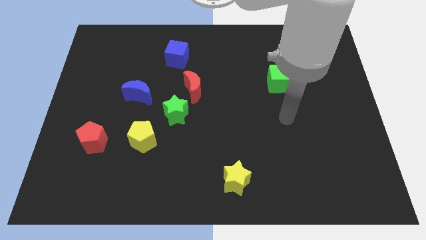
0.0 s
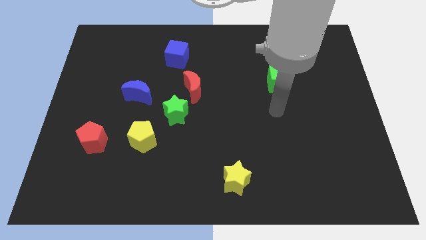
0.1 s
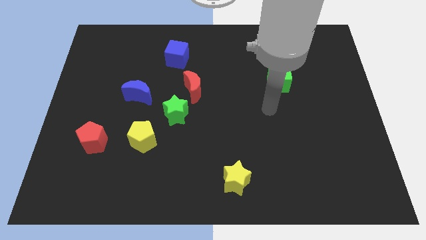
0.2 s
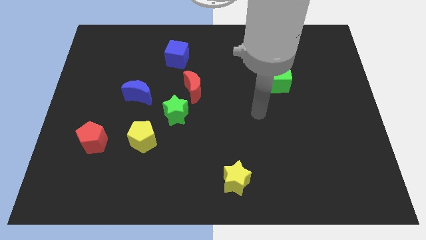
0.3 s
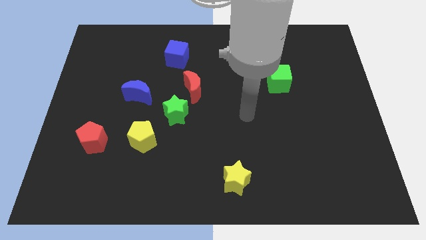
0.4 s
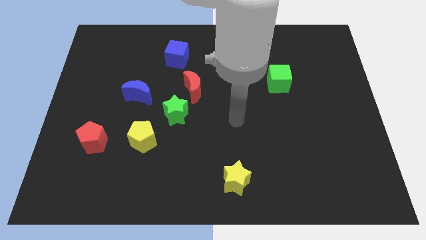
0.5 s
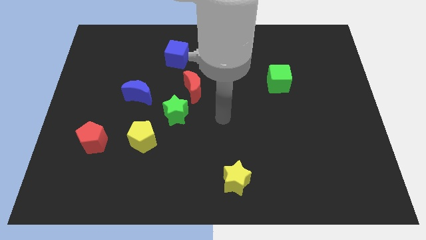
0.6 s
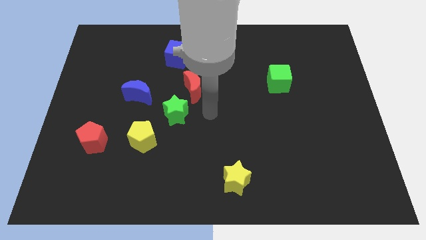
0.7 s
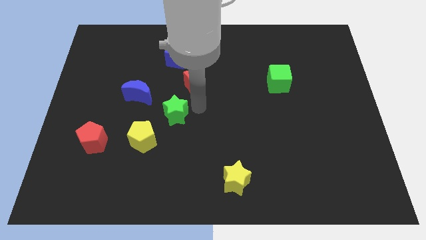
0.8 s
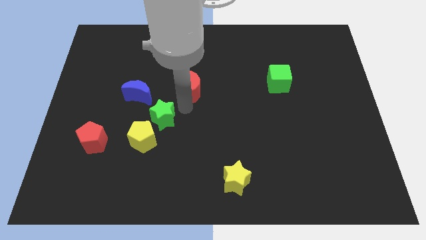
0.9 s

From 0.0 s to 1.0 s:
pull the red moon apart from the green star

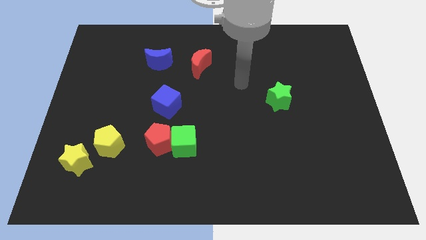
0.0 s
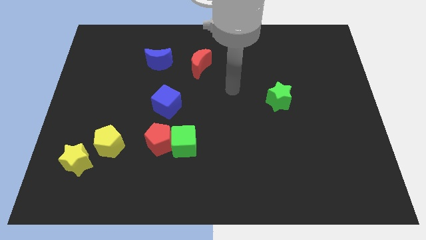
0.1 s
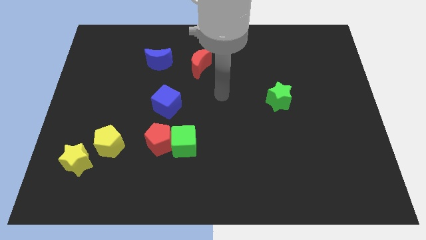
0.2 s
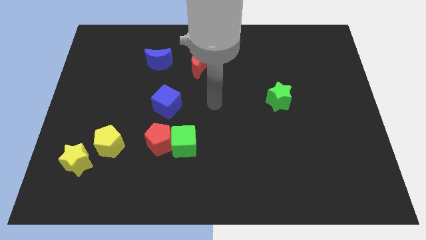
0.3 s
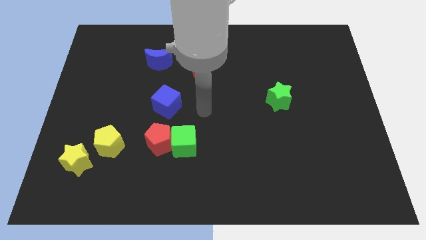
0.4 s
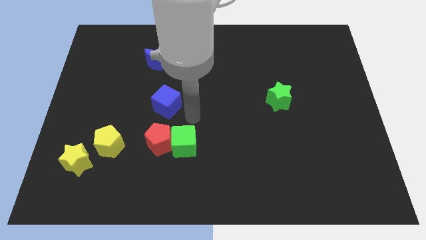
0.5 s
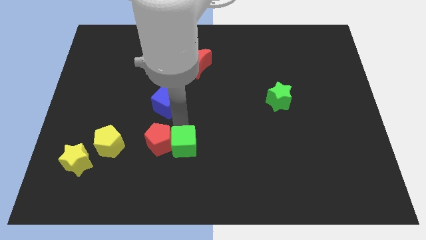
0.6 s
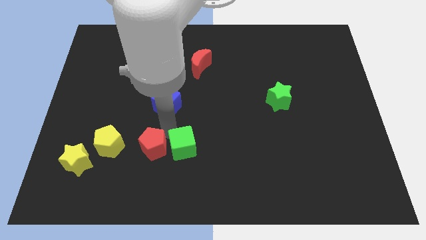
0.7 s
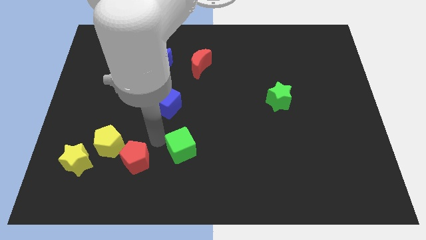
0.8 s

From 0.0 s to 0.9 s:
separate the green cube from the red pentagon

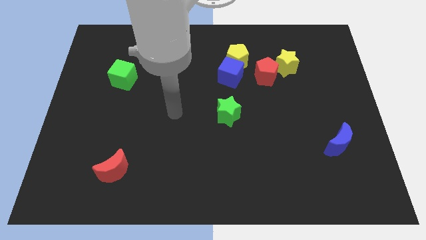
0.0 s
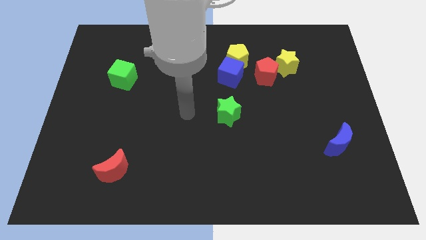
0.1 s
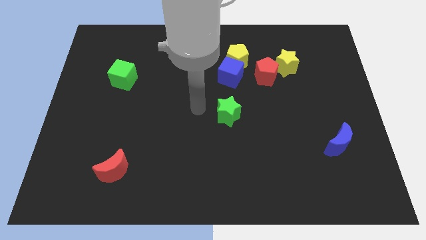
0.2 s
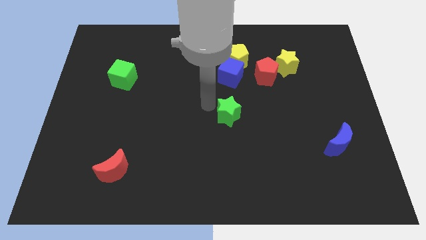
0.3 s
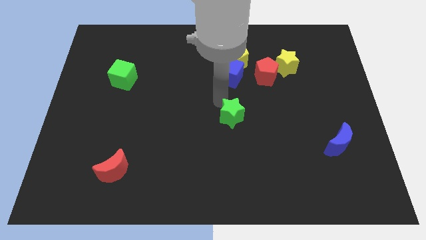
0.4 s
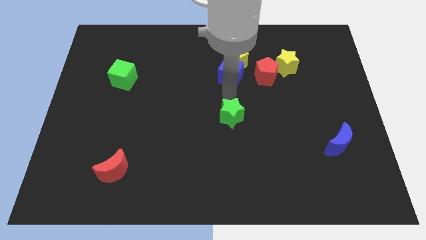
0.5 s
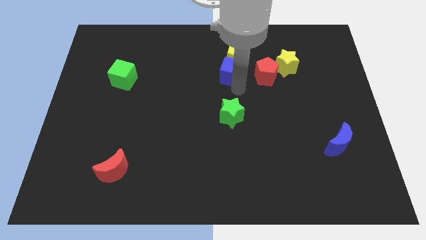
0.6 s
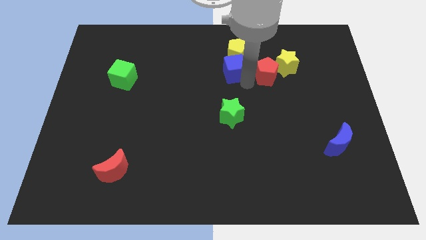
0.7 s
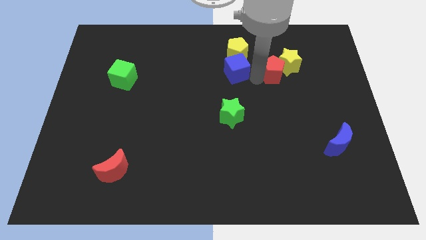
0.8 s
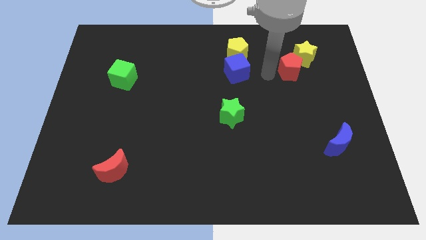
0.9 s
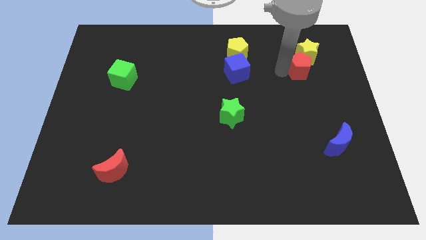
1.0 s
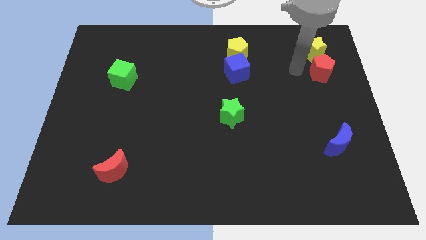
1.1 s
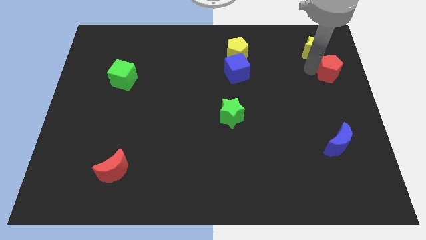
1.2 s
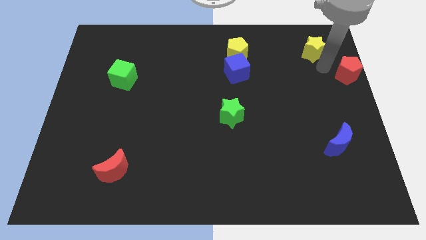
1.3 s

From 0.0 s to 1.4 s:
pull the yellow star apart from the red pentagon

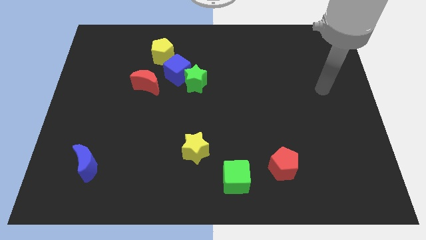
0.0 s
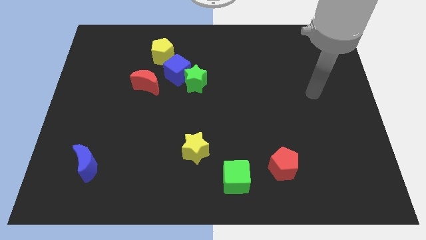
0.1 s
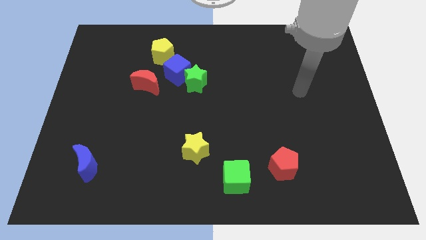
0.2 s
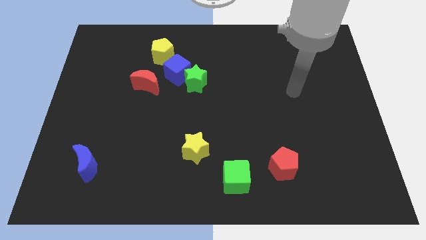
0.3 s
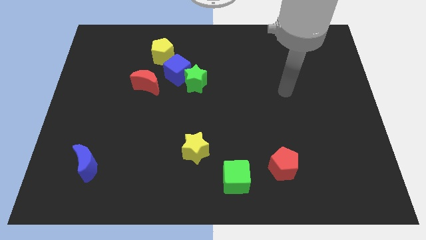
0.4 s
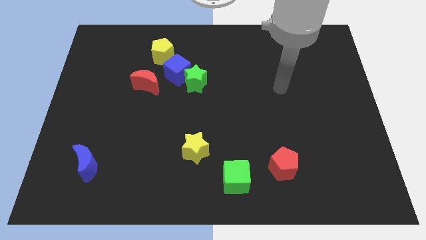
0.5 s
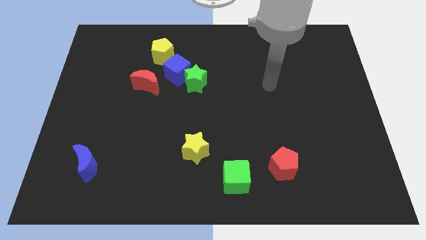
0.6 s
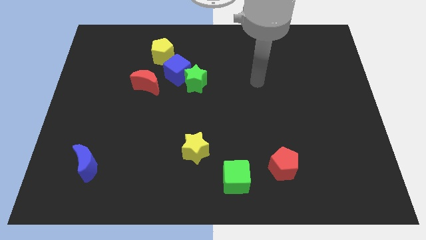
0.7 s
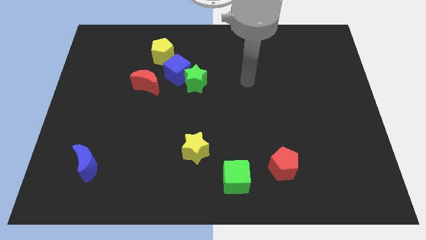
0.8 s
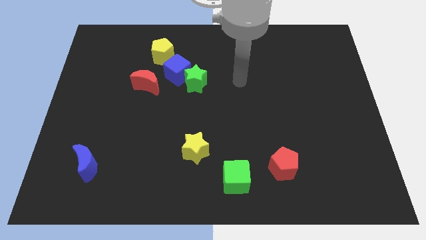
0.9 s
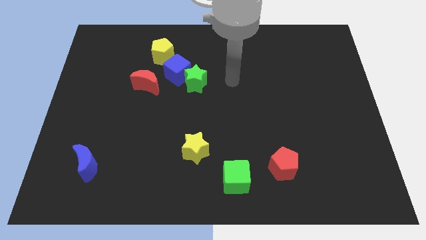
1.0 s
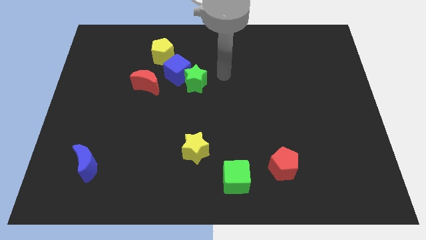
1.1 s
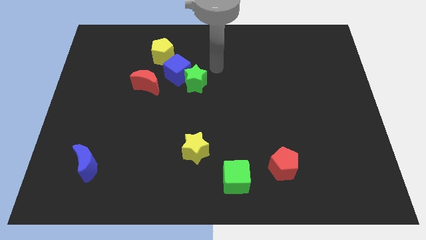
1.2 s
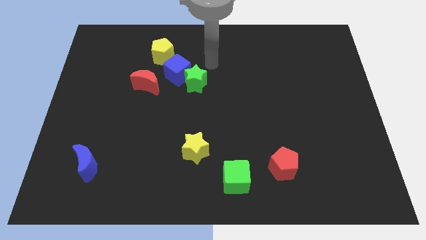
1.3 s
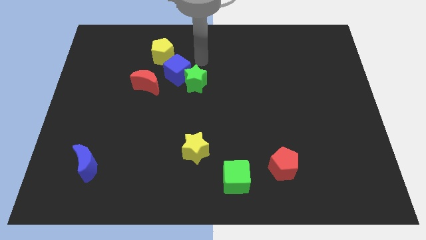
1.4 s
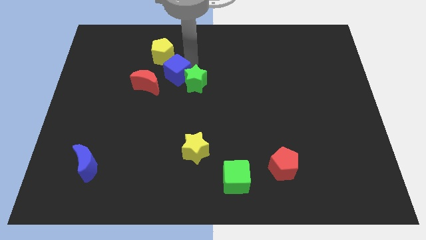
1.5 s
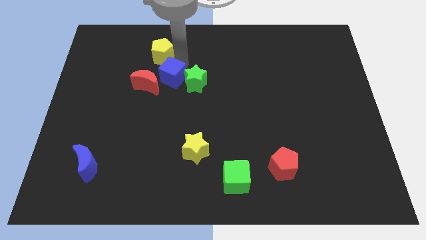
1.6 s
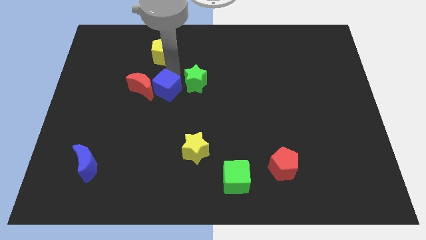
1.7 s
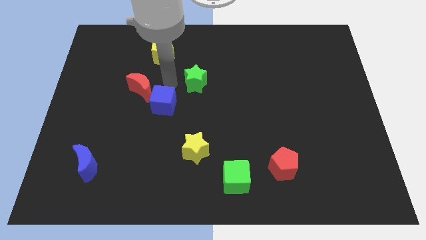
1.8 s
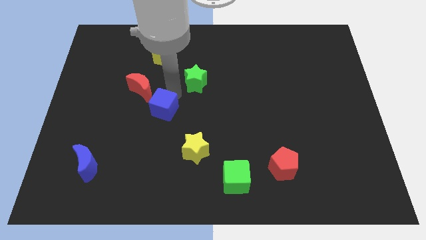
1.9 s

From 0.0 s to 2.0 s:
move the green star away from the blue cube

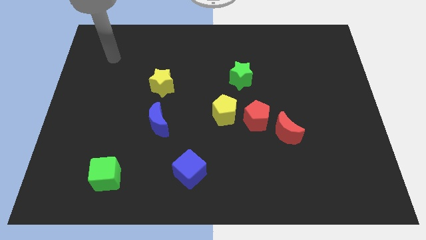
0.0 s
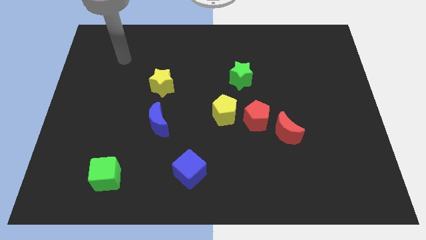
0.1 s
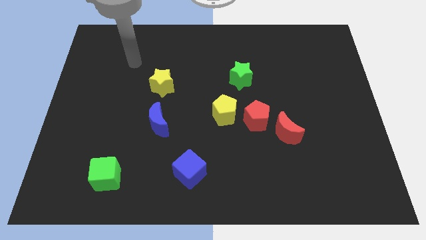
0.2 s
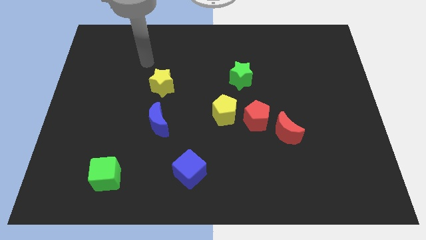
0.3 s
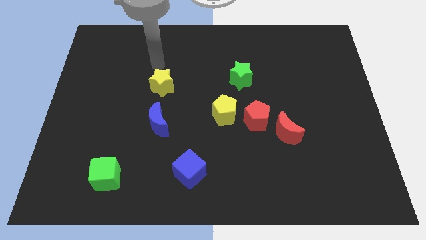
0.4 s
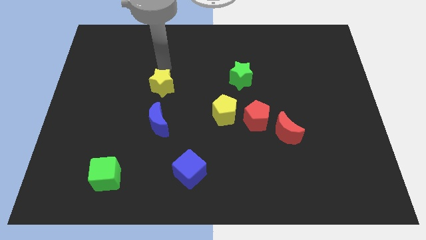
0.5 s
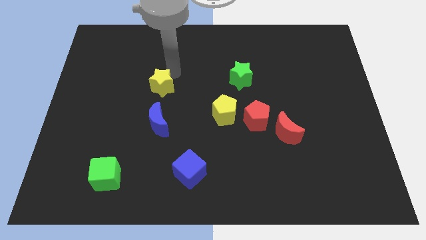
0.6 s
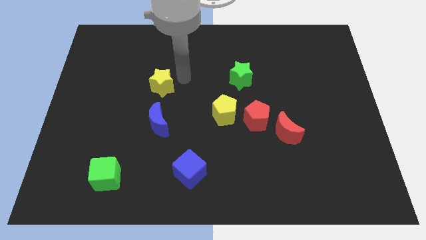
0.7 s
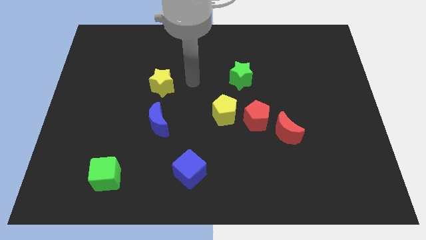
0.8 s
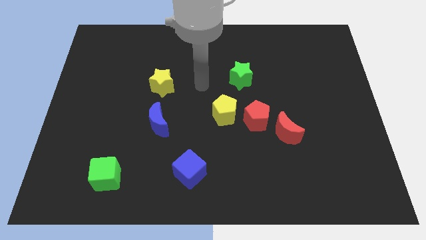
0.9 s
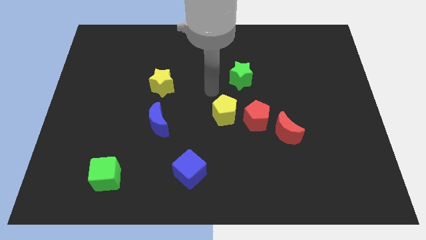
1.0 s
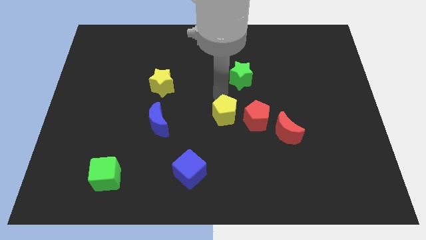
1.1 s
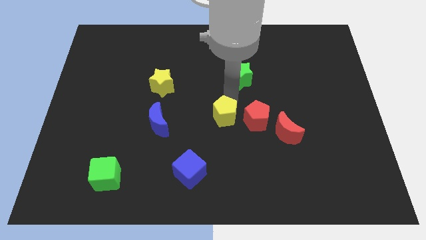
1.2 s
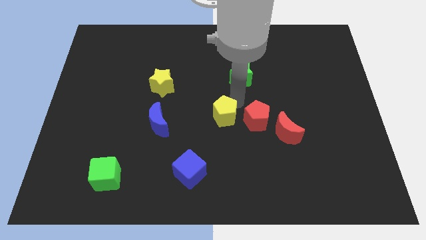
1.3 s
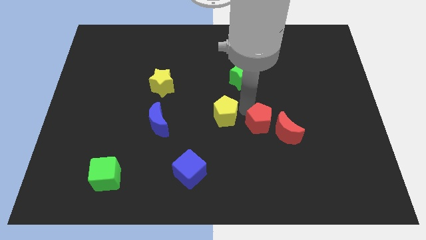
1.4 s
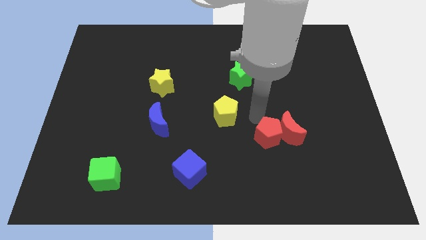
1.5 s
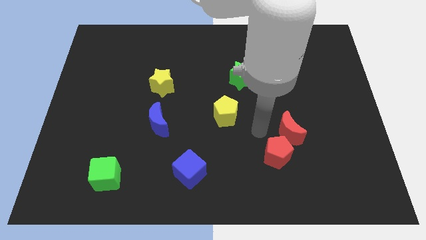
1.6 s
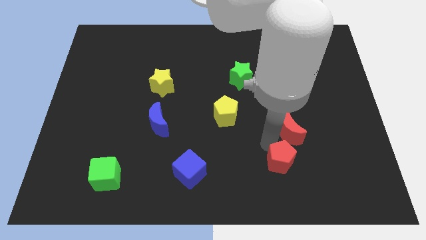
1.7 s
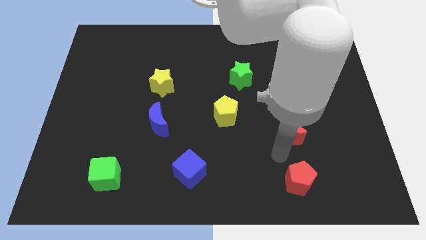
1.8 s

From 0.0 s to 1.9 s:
separate the red moon from the red pentagon

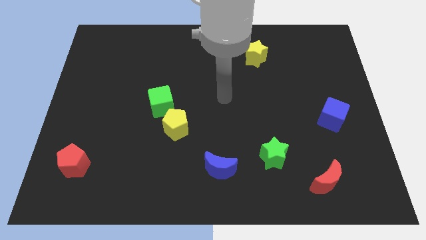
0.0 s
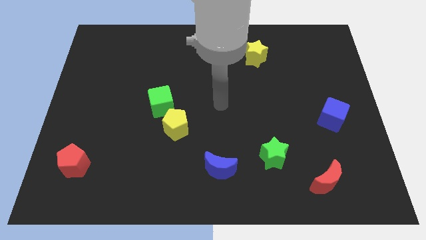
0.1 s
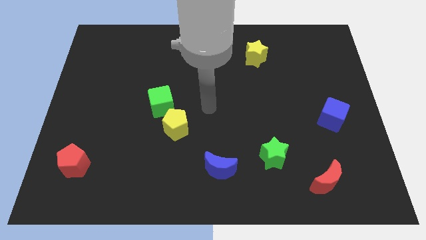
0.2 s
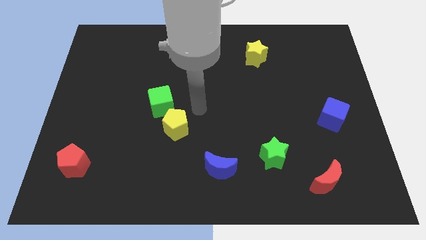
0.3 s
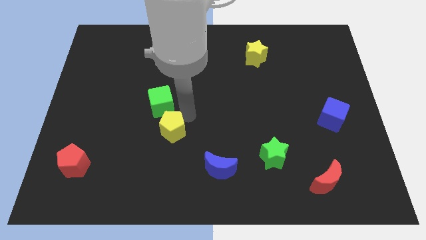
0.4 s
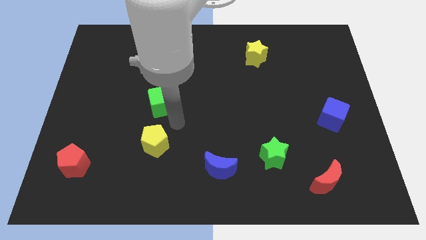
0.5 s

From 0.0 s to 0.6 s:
move the green cube away from the yellow pentagon

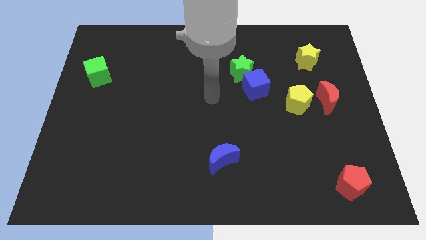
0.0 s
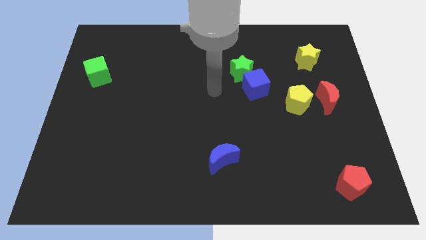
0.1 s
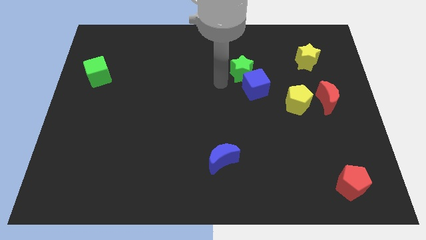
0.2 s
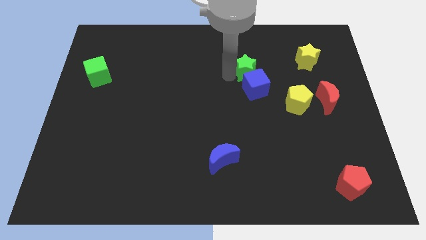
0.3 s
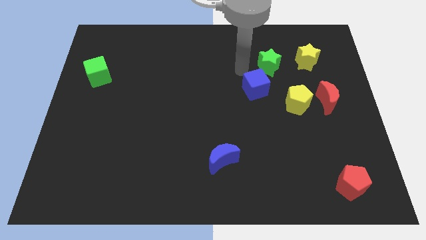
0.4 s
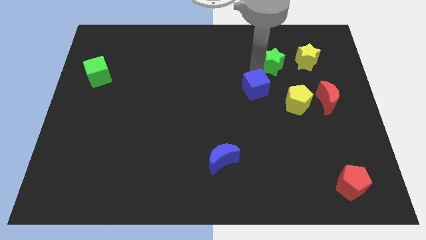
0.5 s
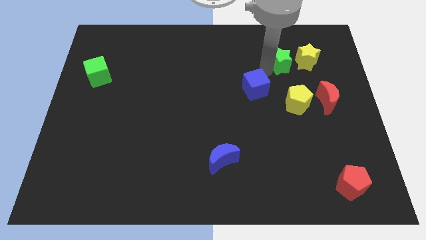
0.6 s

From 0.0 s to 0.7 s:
separate the blue cube from the green star

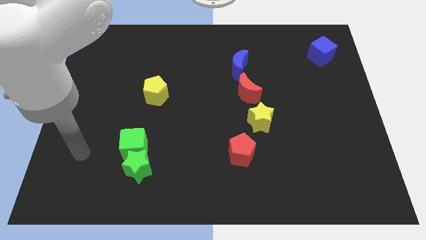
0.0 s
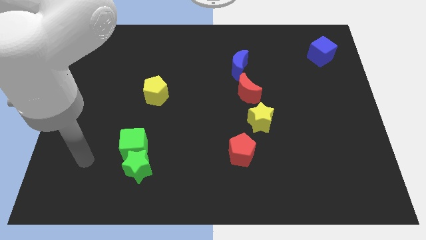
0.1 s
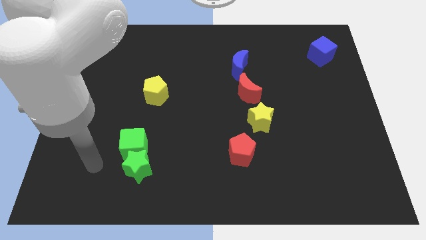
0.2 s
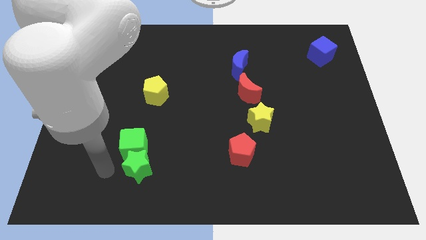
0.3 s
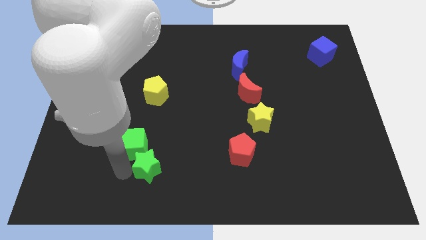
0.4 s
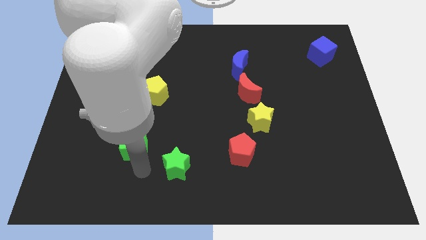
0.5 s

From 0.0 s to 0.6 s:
separate the green cube from the green star

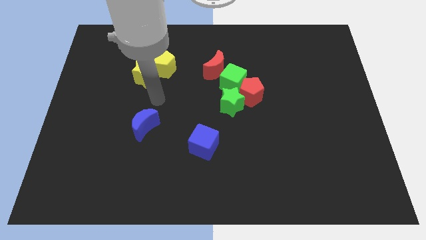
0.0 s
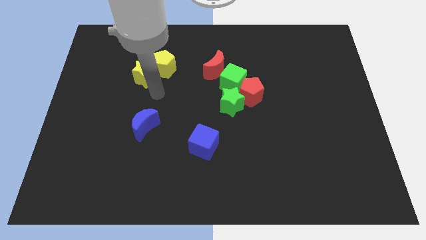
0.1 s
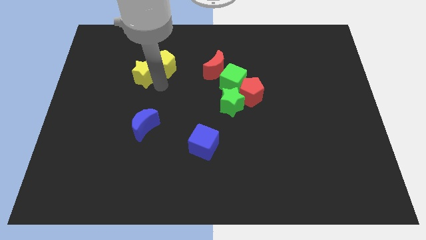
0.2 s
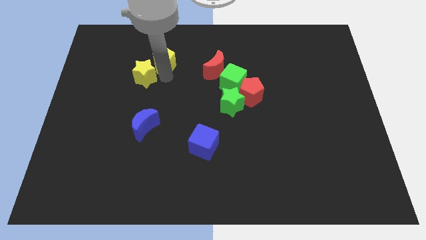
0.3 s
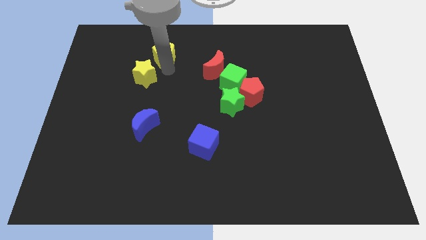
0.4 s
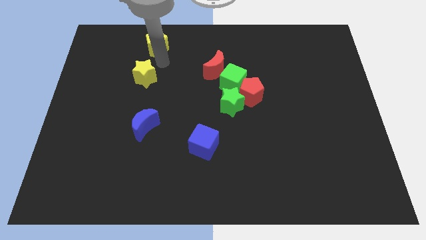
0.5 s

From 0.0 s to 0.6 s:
pull the yellow star apart from the yellow pentagon
